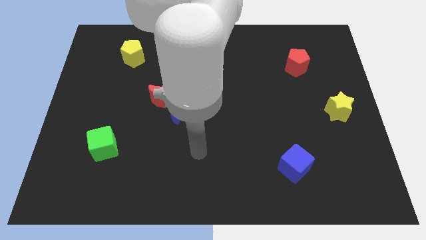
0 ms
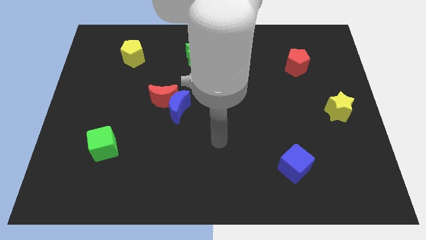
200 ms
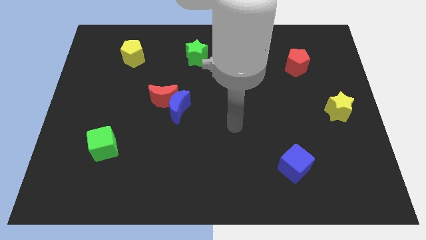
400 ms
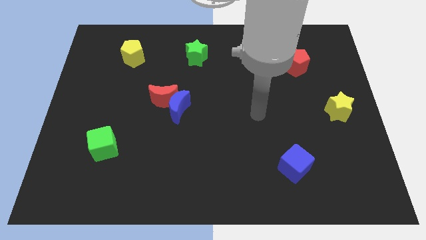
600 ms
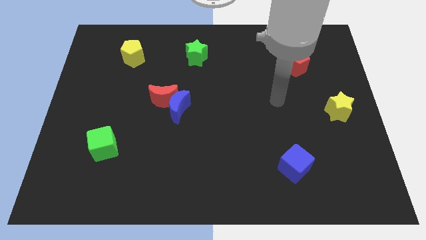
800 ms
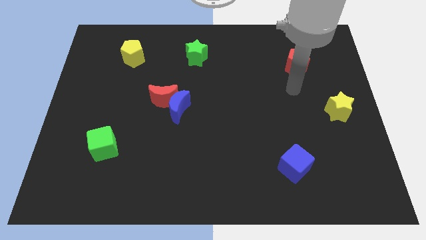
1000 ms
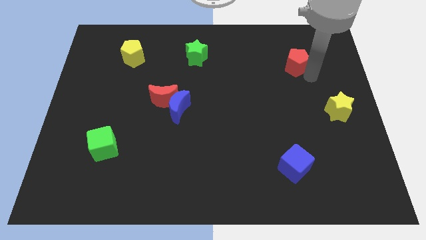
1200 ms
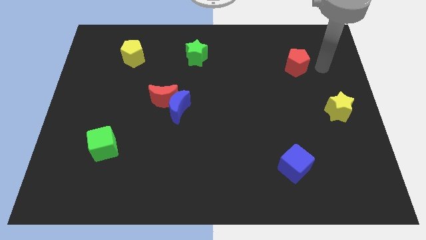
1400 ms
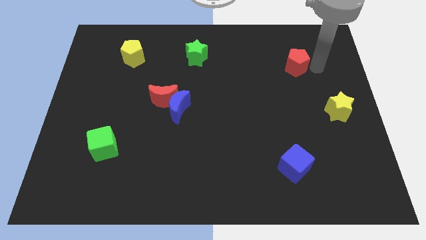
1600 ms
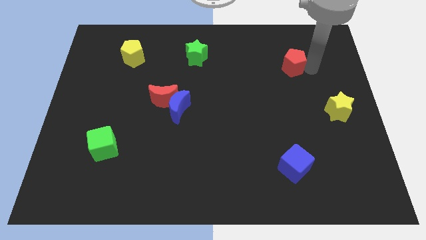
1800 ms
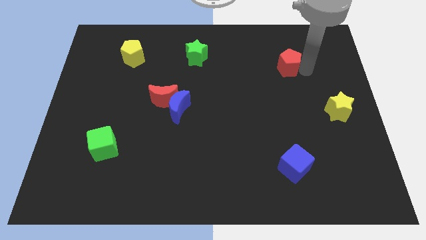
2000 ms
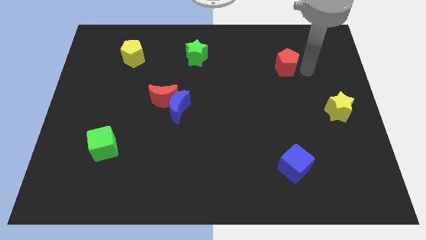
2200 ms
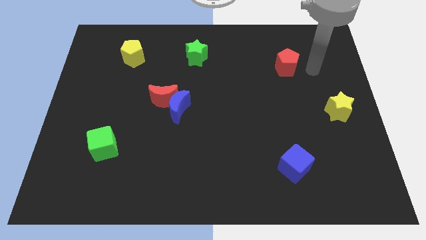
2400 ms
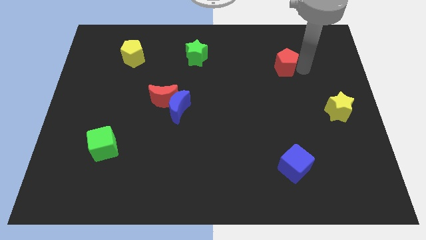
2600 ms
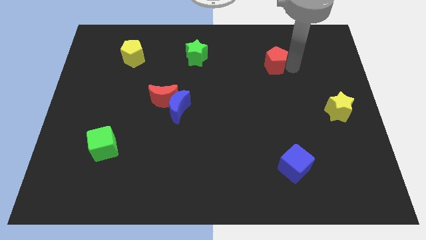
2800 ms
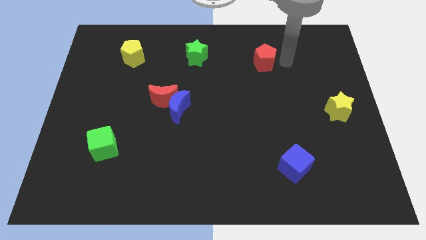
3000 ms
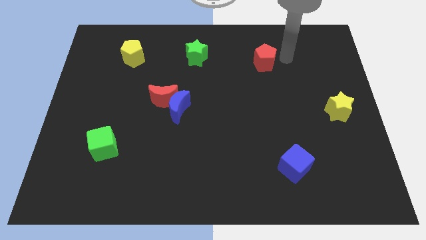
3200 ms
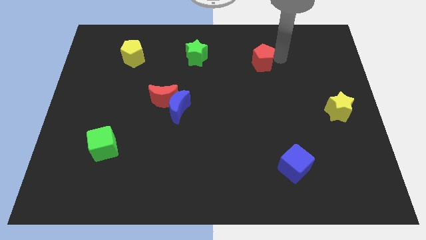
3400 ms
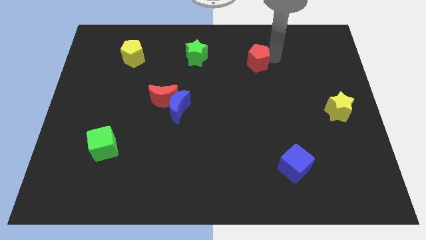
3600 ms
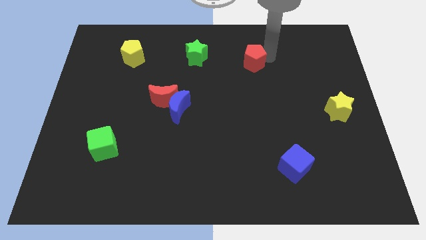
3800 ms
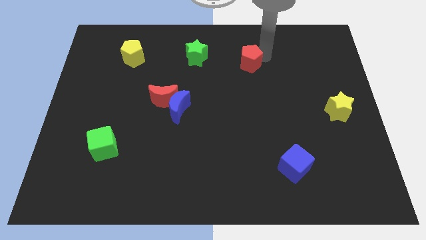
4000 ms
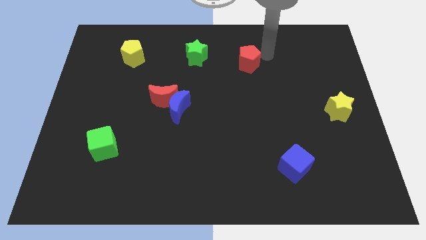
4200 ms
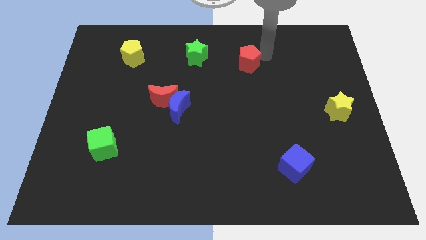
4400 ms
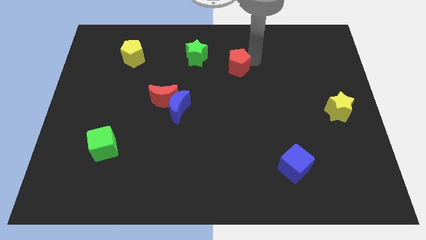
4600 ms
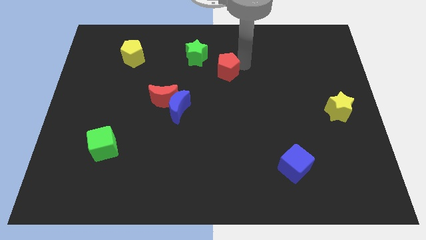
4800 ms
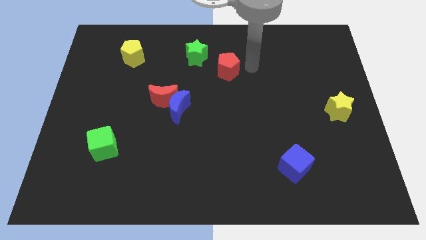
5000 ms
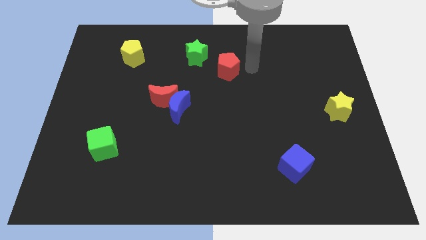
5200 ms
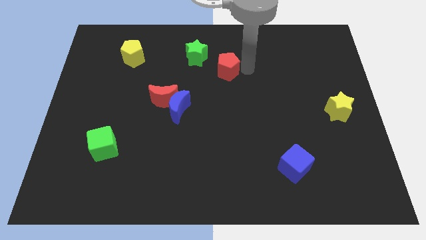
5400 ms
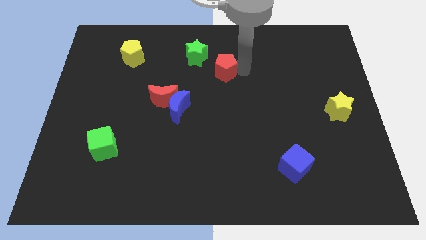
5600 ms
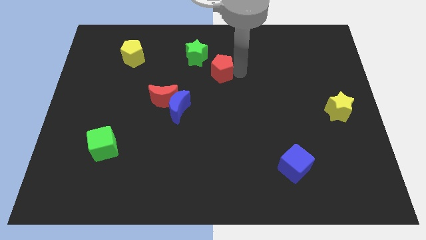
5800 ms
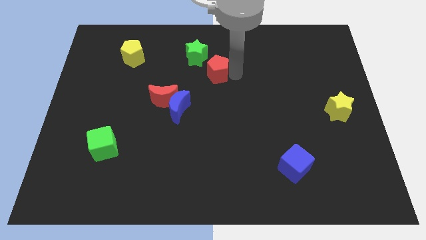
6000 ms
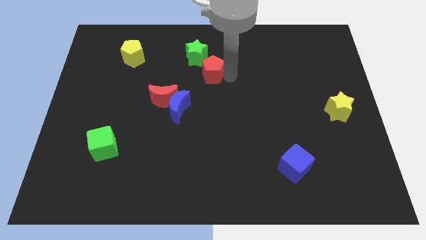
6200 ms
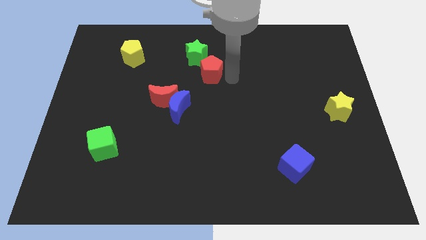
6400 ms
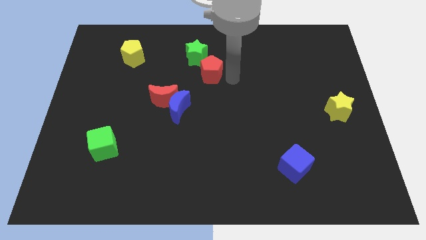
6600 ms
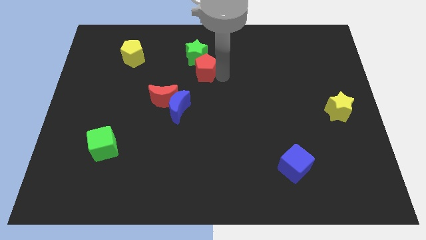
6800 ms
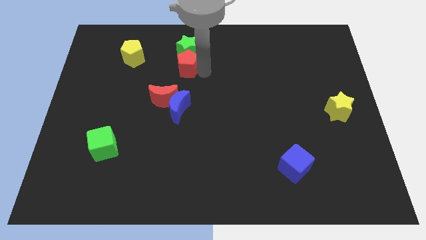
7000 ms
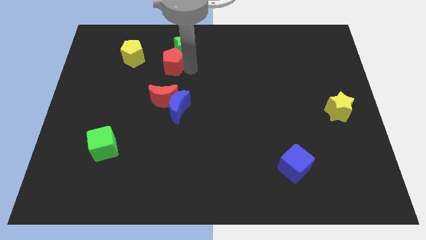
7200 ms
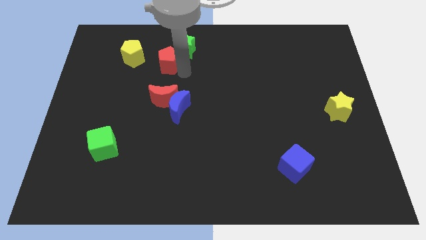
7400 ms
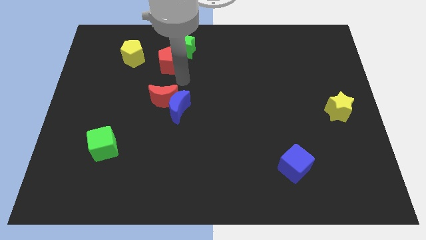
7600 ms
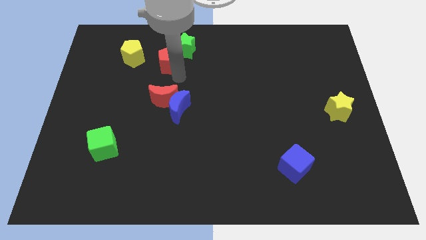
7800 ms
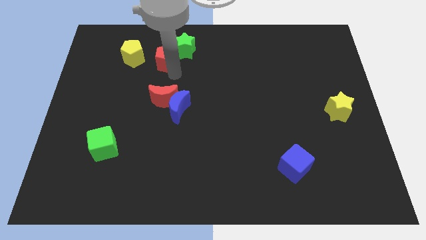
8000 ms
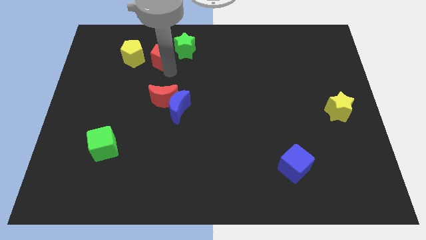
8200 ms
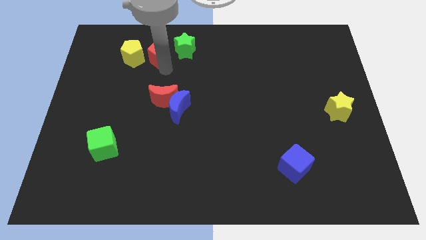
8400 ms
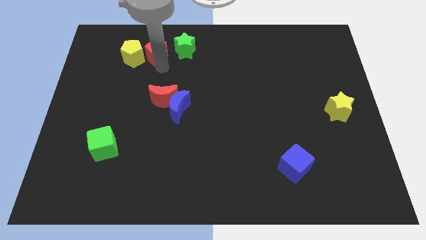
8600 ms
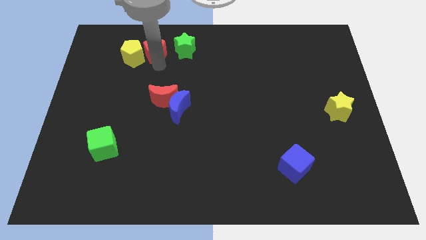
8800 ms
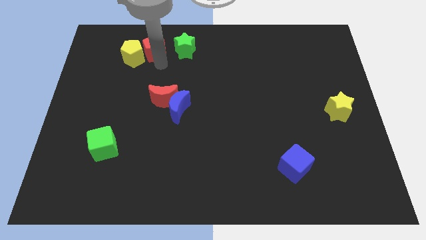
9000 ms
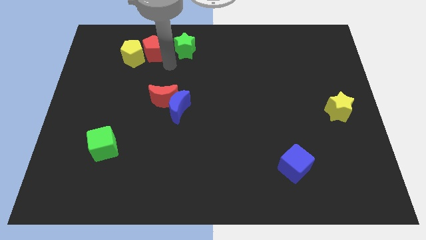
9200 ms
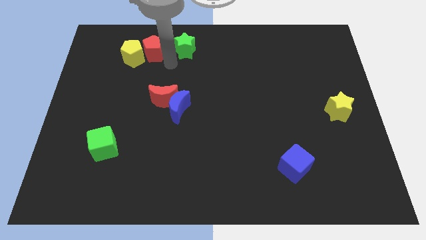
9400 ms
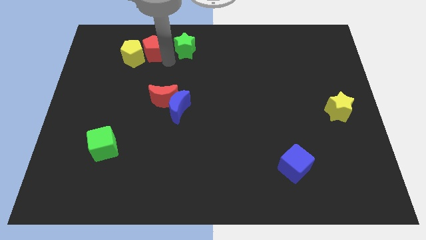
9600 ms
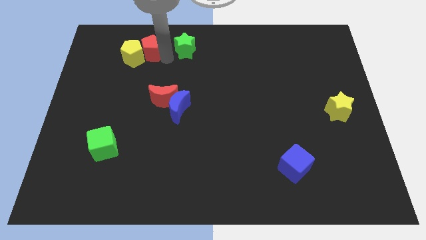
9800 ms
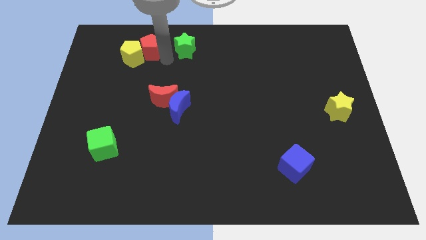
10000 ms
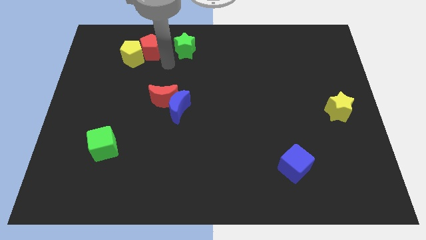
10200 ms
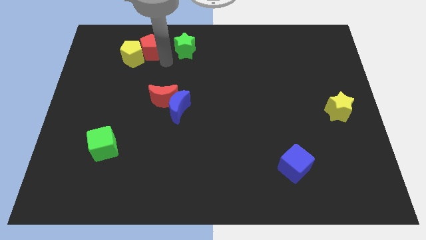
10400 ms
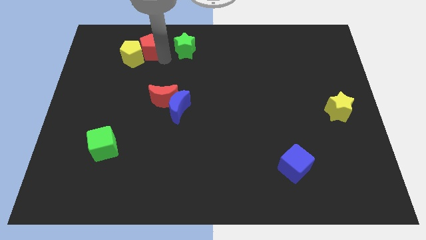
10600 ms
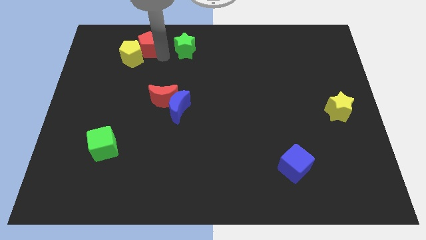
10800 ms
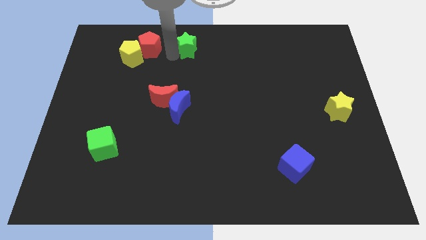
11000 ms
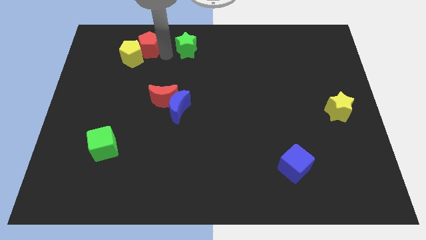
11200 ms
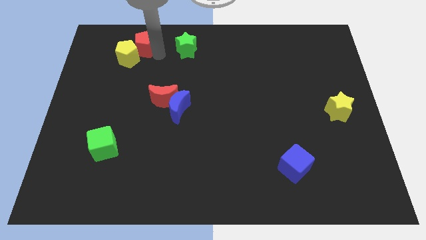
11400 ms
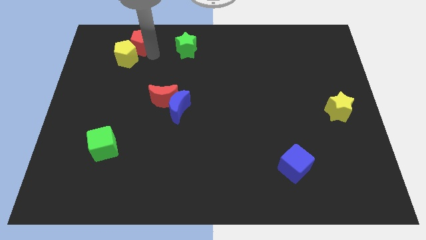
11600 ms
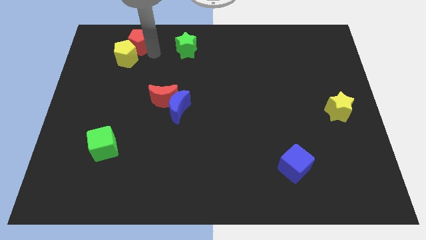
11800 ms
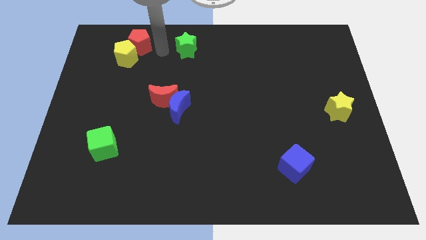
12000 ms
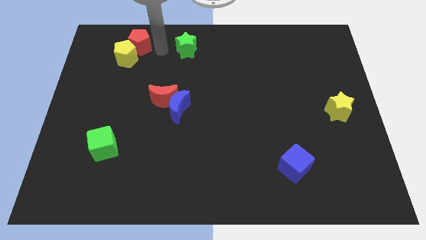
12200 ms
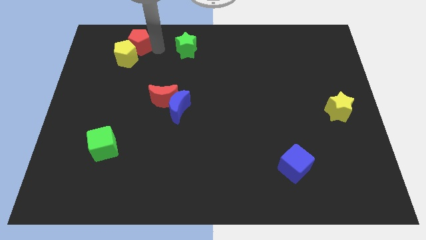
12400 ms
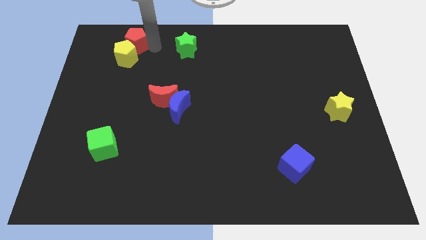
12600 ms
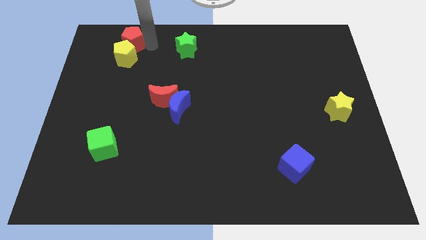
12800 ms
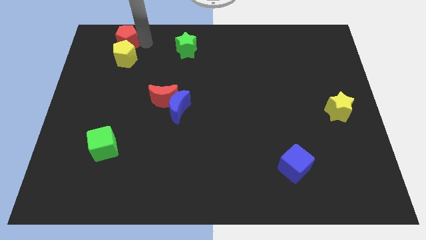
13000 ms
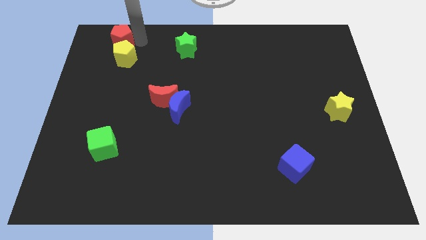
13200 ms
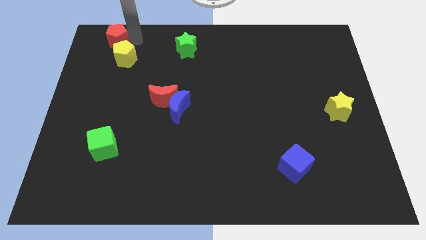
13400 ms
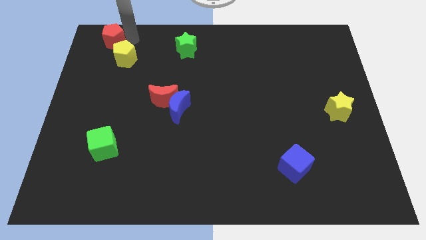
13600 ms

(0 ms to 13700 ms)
move the red pentagon to the top left corner
